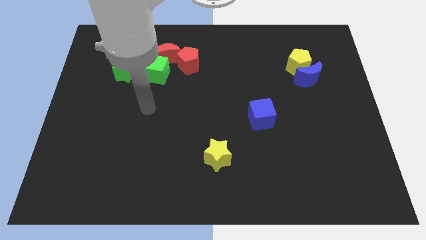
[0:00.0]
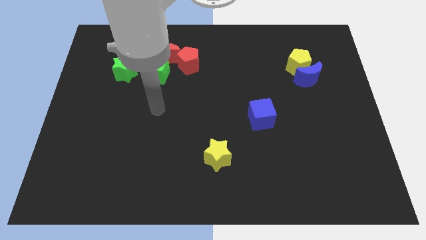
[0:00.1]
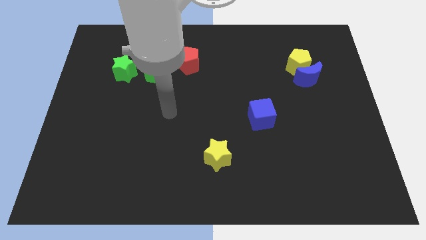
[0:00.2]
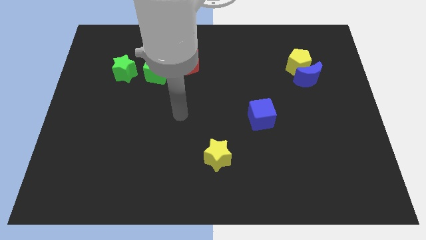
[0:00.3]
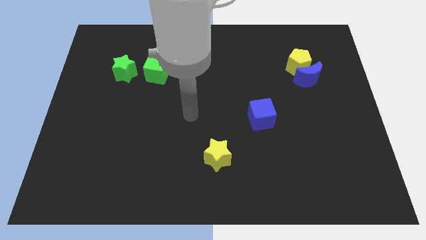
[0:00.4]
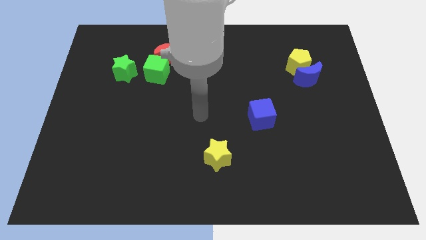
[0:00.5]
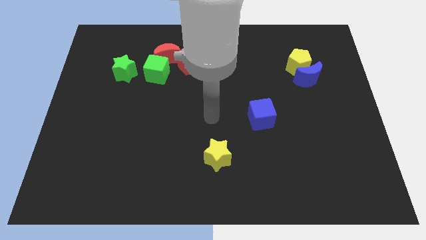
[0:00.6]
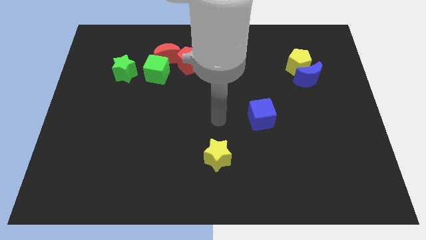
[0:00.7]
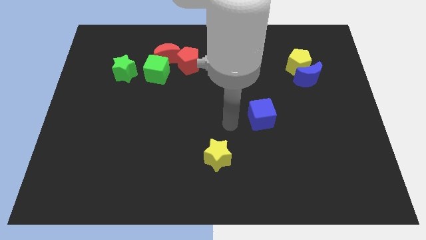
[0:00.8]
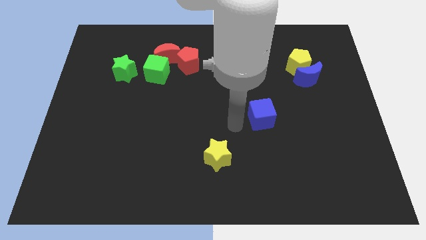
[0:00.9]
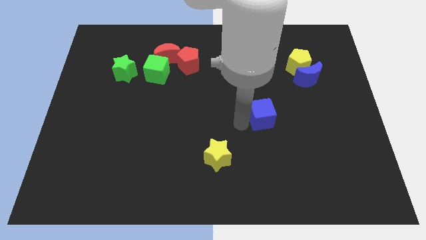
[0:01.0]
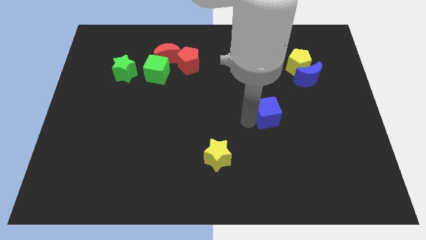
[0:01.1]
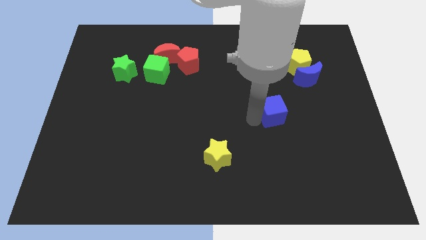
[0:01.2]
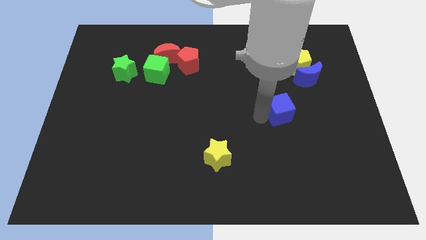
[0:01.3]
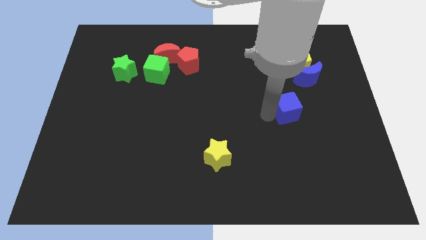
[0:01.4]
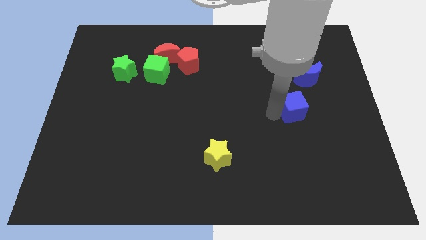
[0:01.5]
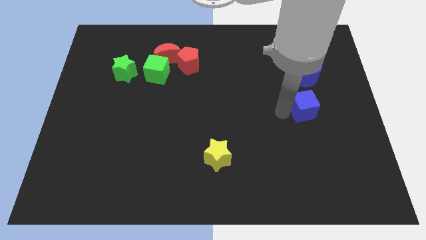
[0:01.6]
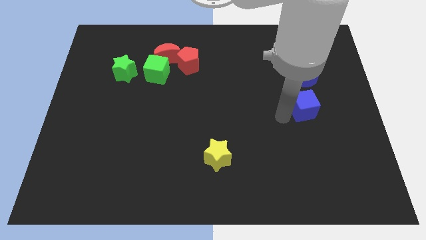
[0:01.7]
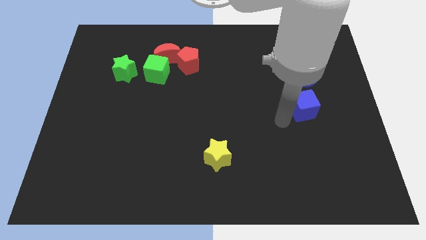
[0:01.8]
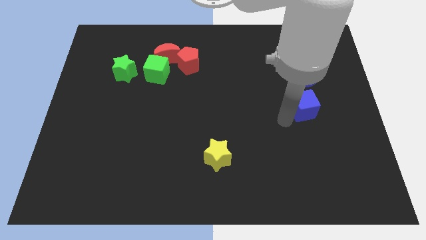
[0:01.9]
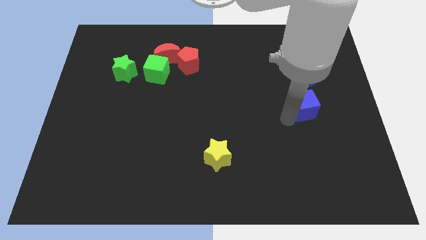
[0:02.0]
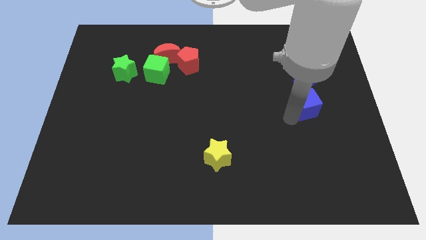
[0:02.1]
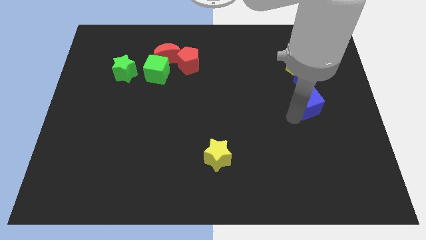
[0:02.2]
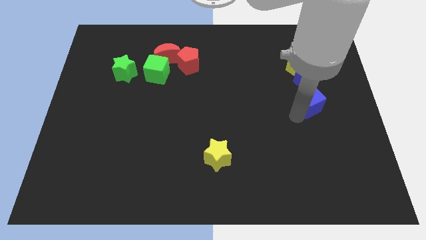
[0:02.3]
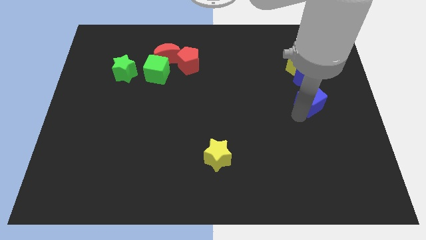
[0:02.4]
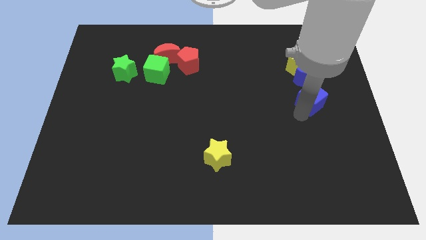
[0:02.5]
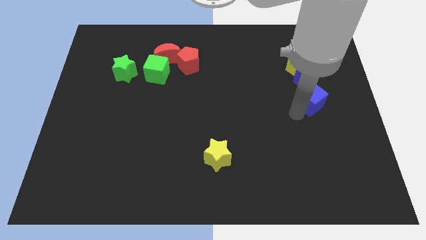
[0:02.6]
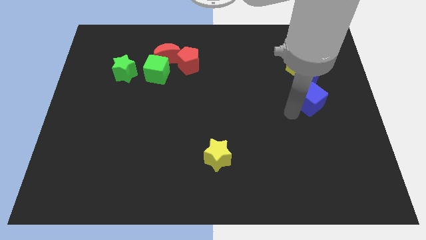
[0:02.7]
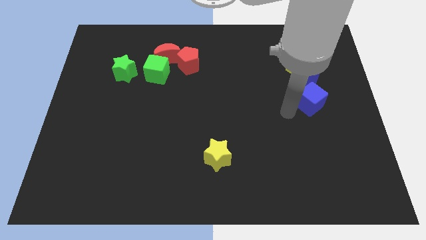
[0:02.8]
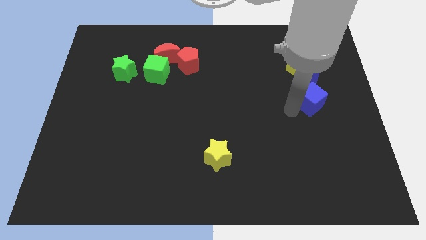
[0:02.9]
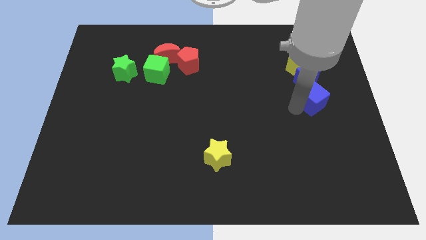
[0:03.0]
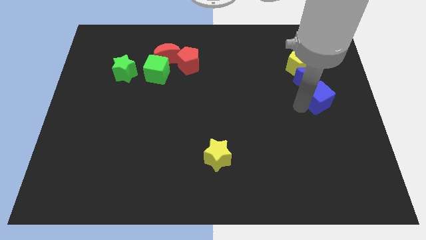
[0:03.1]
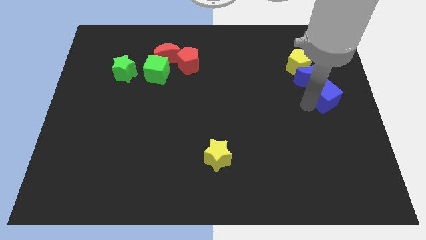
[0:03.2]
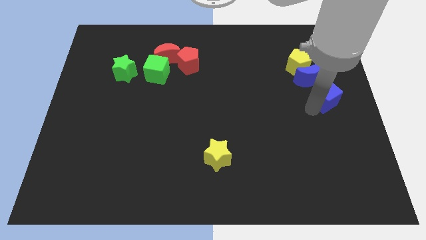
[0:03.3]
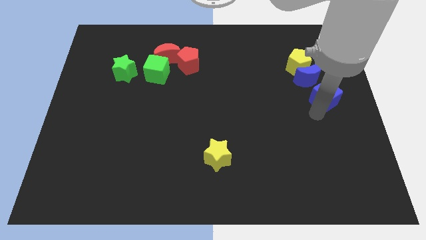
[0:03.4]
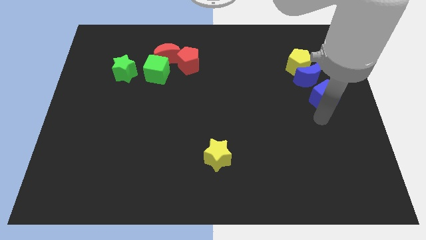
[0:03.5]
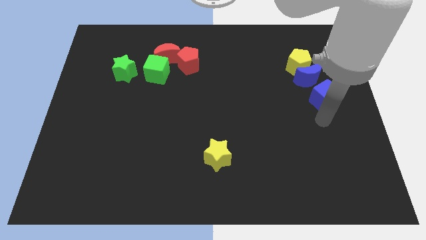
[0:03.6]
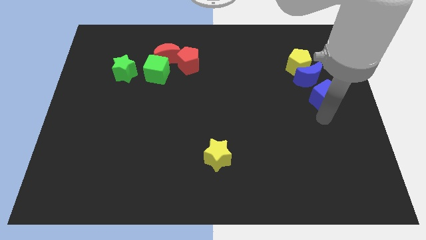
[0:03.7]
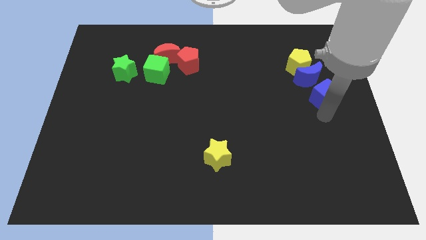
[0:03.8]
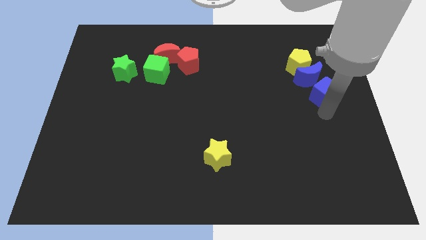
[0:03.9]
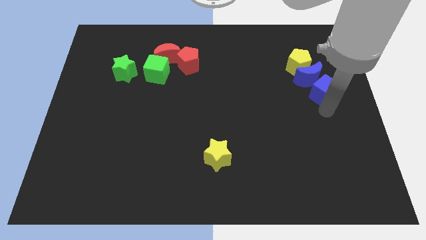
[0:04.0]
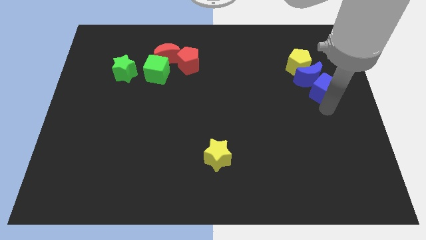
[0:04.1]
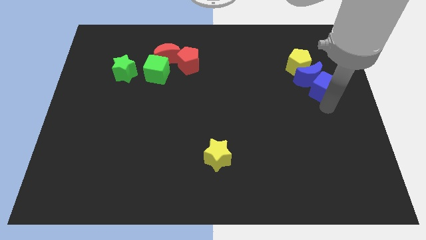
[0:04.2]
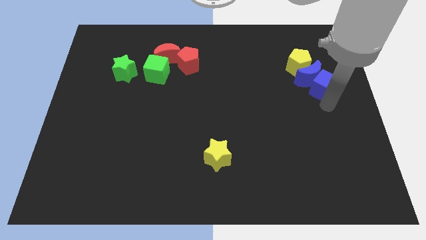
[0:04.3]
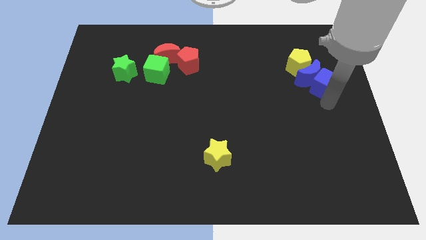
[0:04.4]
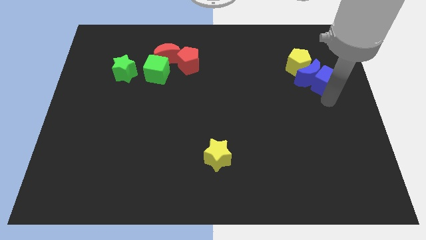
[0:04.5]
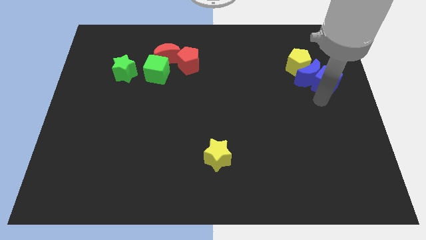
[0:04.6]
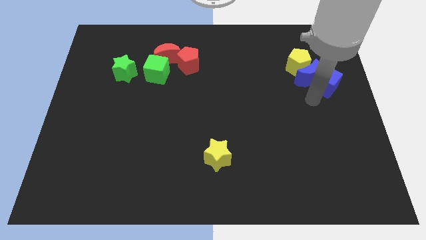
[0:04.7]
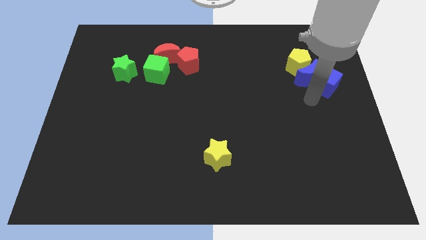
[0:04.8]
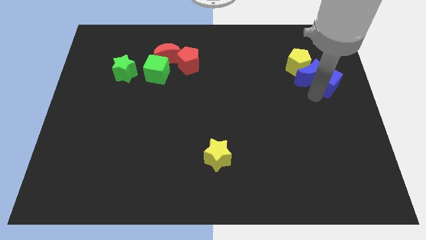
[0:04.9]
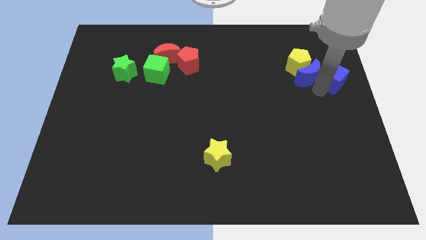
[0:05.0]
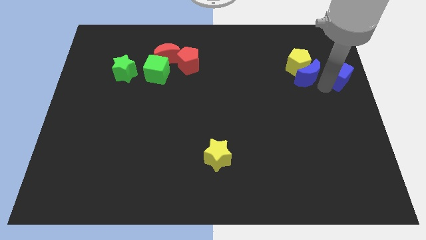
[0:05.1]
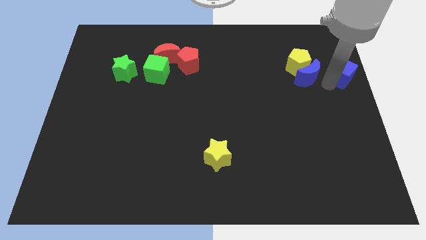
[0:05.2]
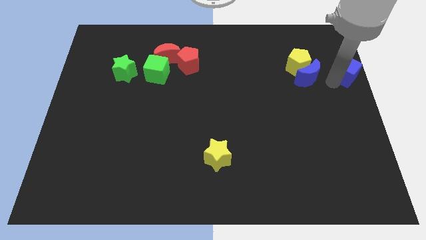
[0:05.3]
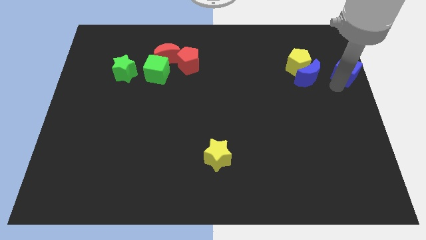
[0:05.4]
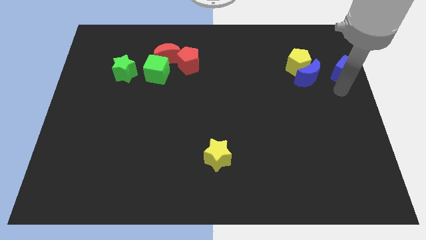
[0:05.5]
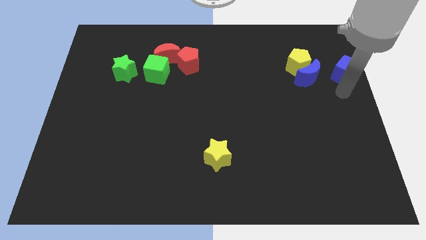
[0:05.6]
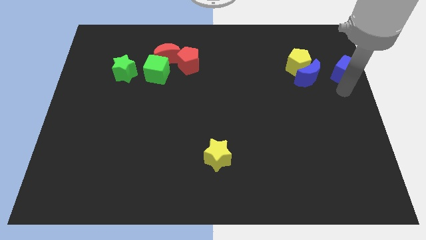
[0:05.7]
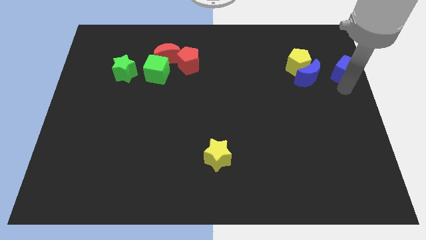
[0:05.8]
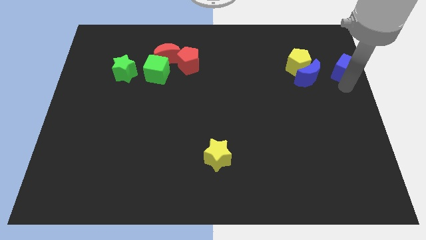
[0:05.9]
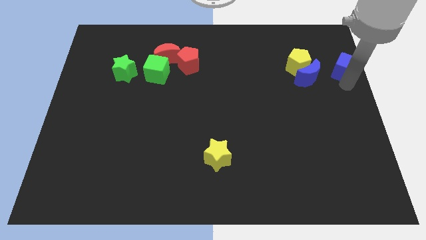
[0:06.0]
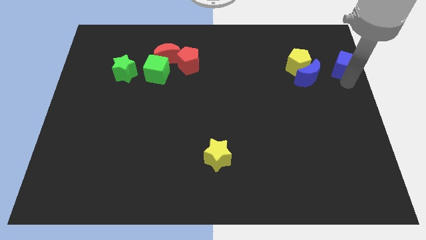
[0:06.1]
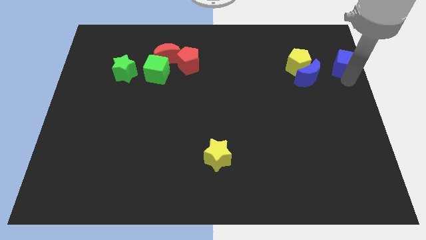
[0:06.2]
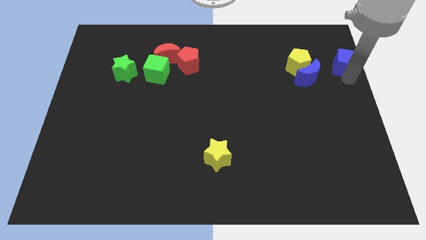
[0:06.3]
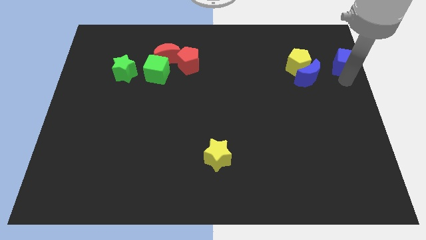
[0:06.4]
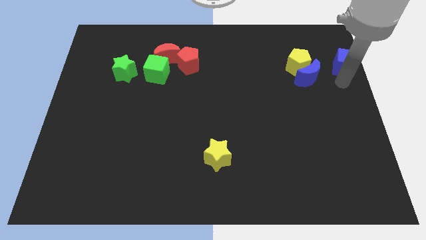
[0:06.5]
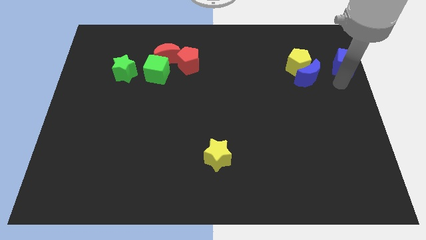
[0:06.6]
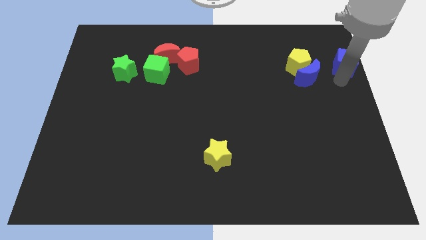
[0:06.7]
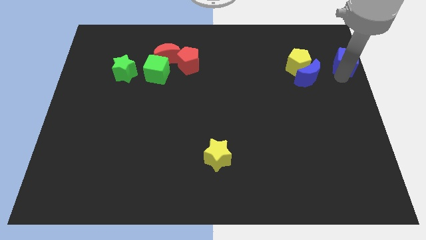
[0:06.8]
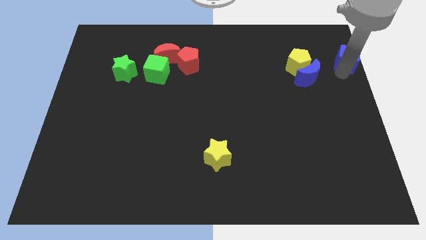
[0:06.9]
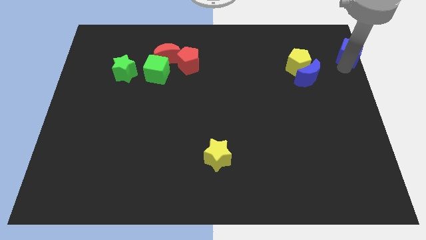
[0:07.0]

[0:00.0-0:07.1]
push the blue cube to the top right corner
